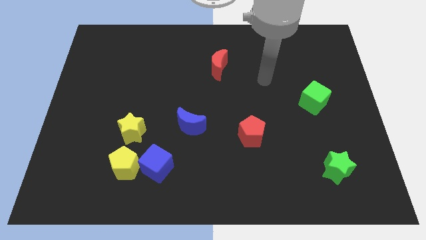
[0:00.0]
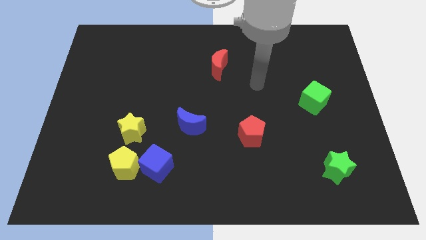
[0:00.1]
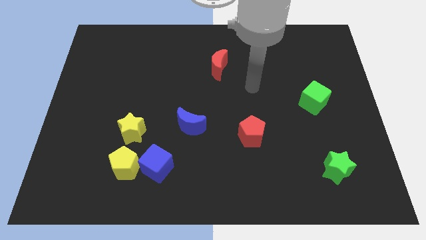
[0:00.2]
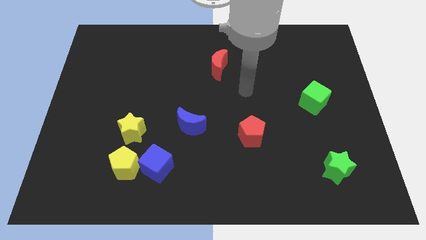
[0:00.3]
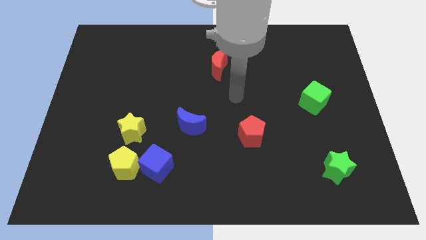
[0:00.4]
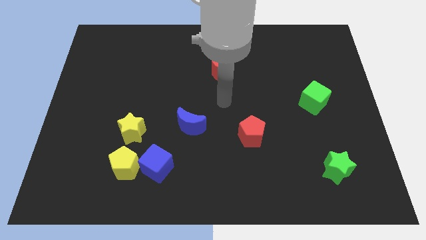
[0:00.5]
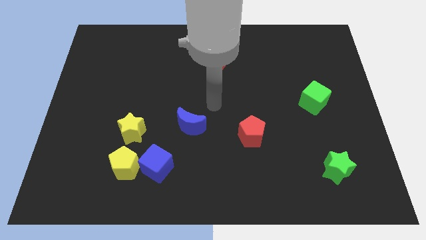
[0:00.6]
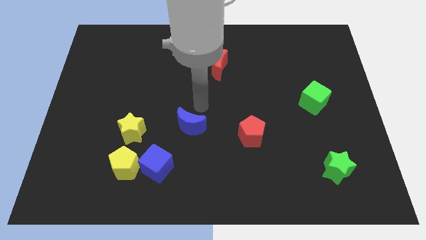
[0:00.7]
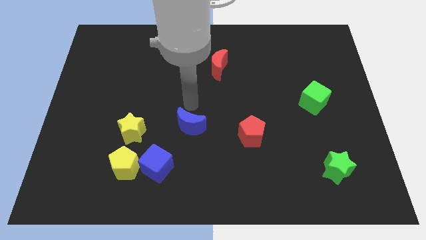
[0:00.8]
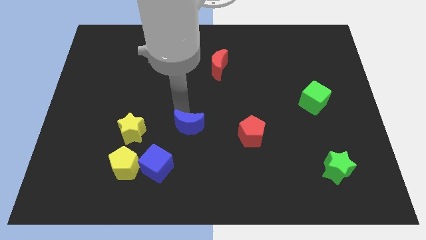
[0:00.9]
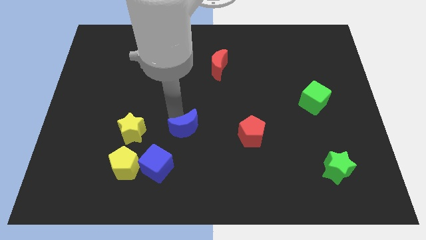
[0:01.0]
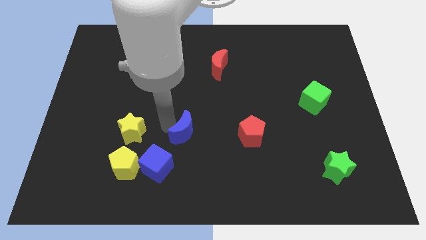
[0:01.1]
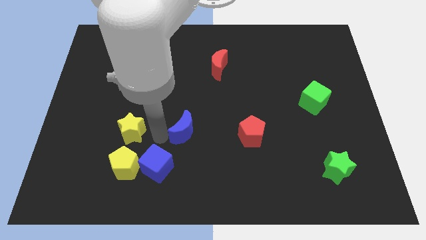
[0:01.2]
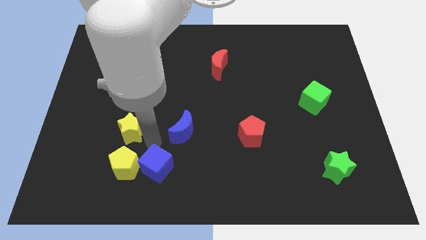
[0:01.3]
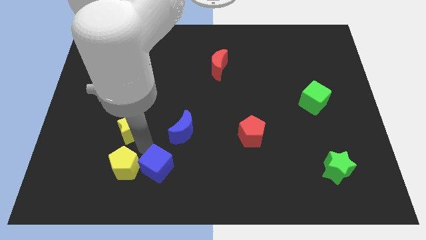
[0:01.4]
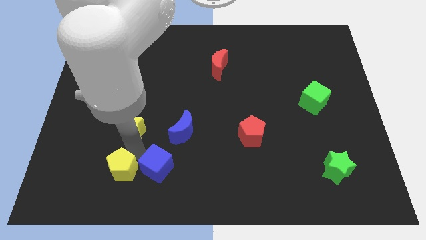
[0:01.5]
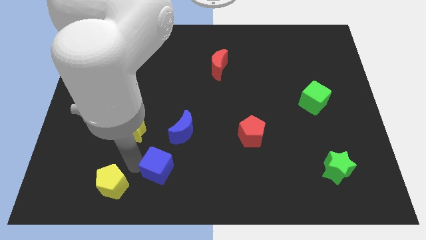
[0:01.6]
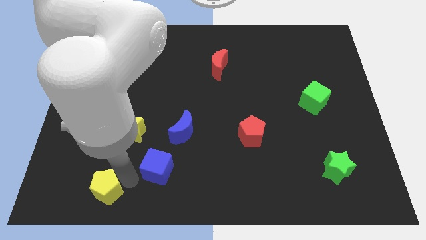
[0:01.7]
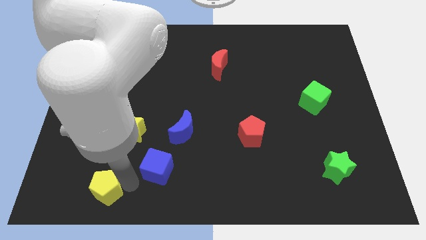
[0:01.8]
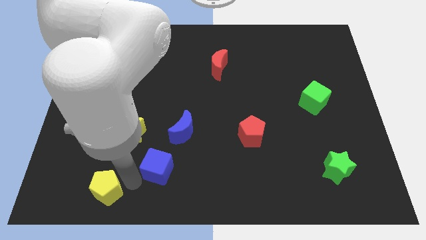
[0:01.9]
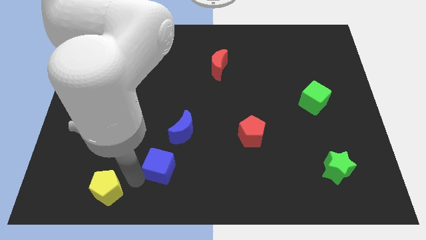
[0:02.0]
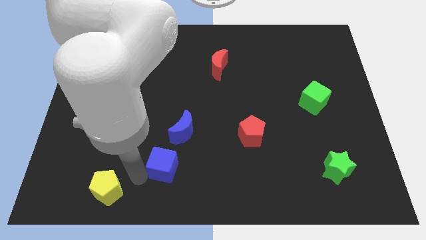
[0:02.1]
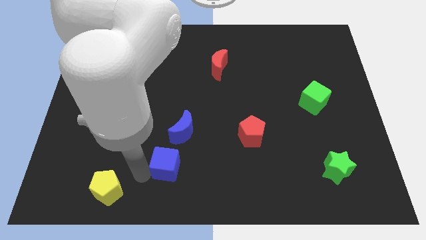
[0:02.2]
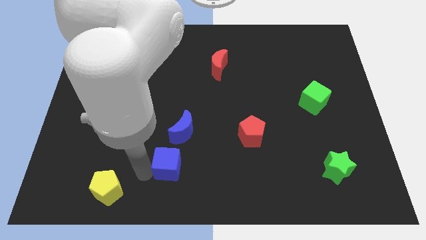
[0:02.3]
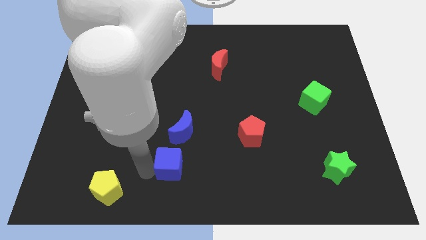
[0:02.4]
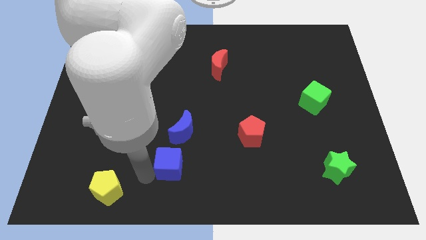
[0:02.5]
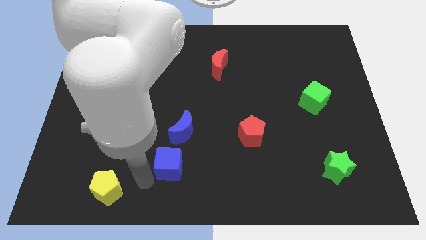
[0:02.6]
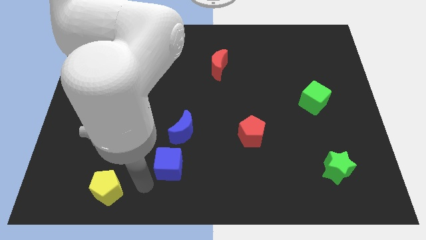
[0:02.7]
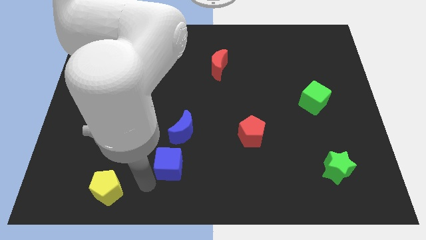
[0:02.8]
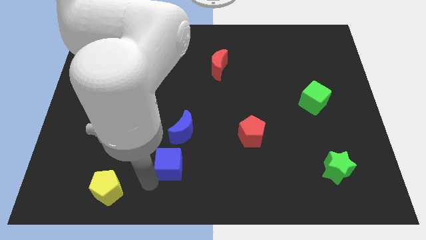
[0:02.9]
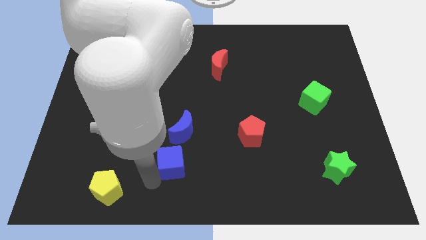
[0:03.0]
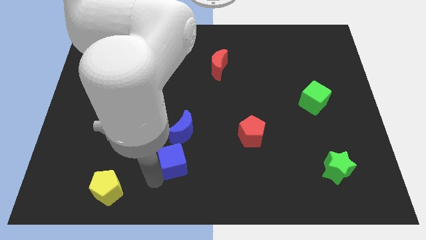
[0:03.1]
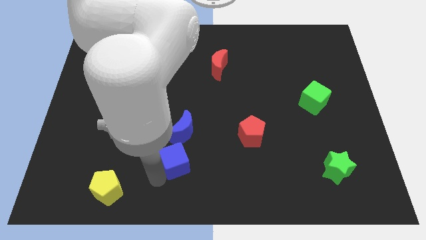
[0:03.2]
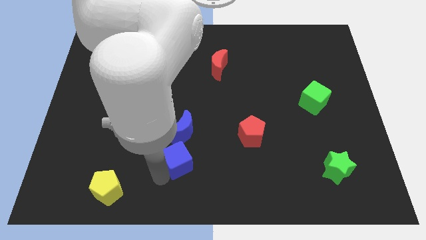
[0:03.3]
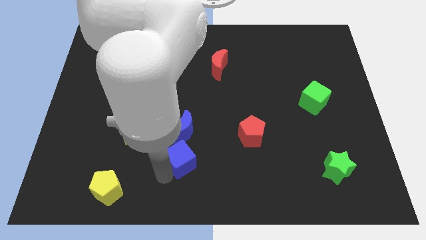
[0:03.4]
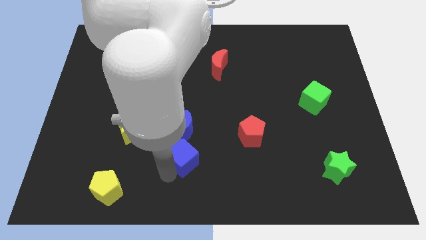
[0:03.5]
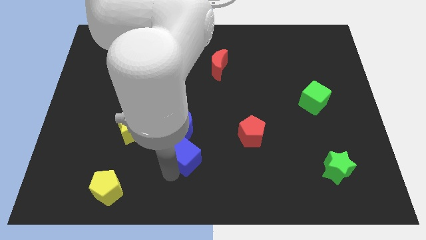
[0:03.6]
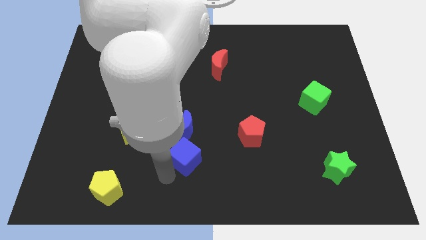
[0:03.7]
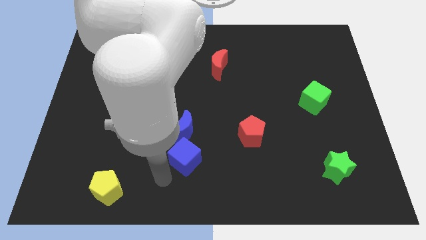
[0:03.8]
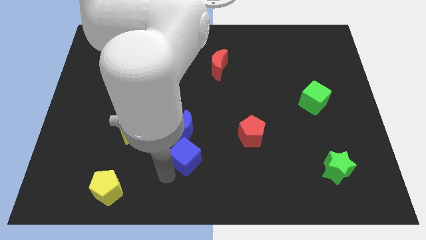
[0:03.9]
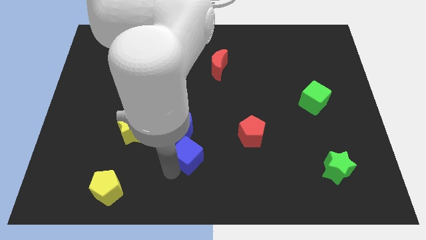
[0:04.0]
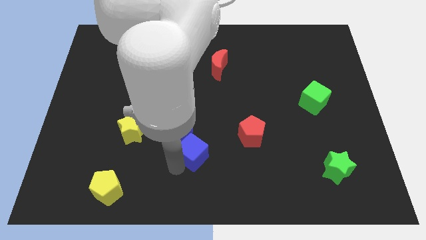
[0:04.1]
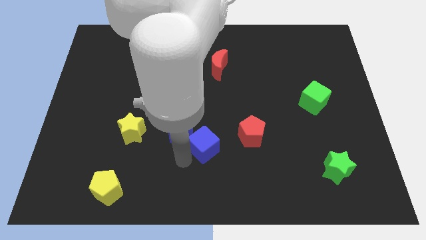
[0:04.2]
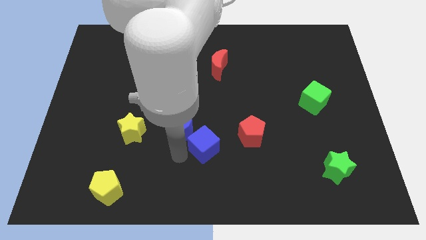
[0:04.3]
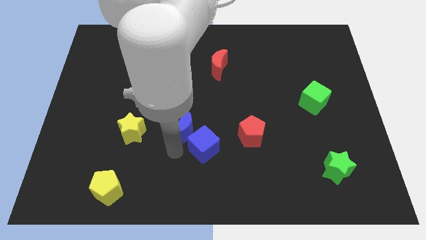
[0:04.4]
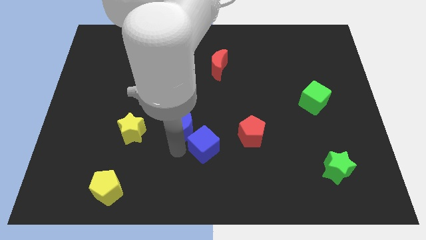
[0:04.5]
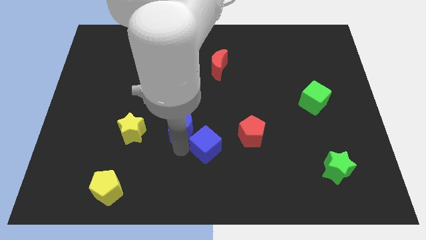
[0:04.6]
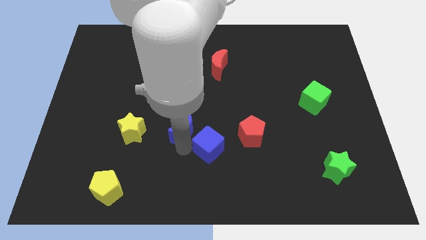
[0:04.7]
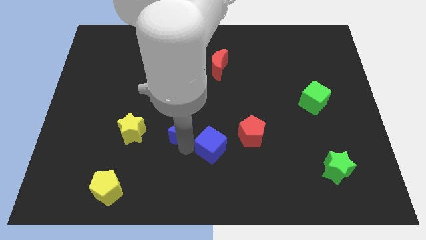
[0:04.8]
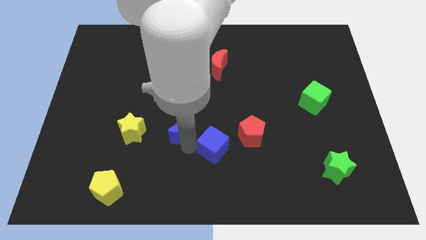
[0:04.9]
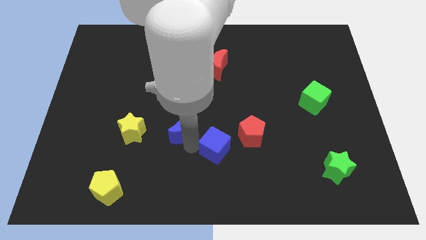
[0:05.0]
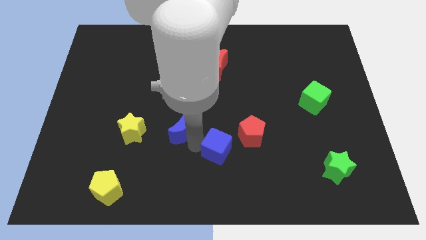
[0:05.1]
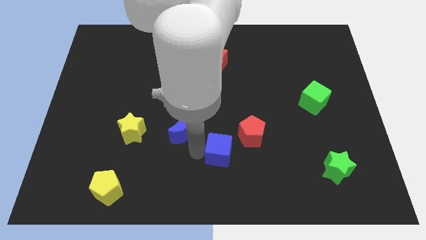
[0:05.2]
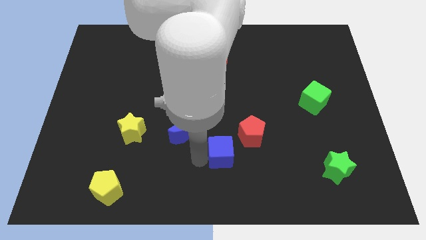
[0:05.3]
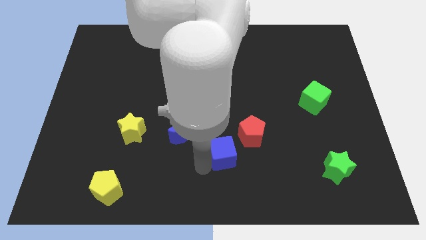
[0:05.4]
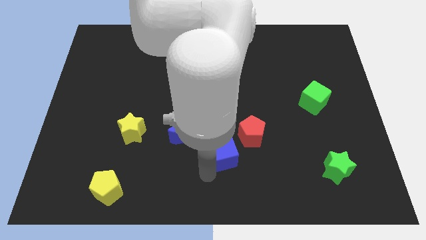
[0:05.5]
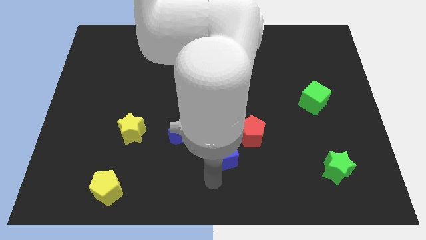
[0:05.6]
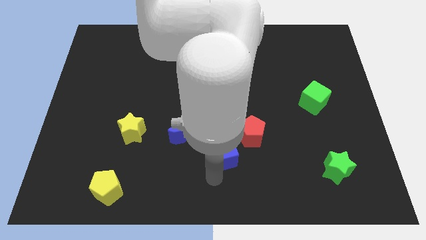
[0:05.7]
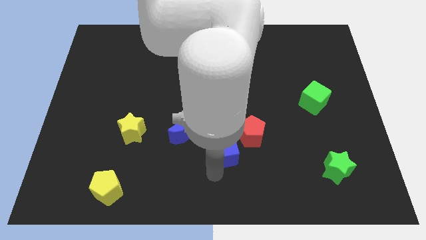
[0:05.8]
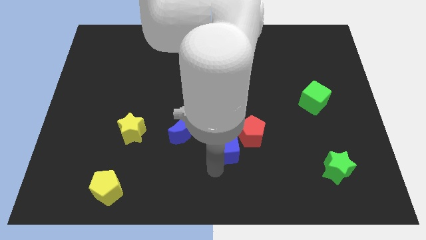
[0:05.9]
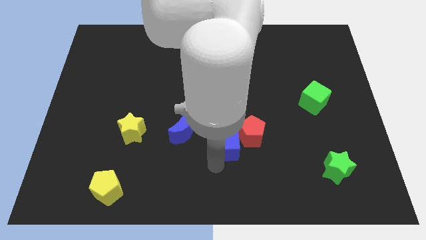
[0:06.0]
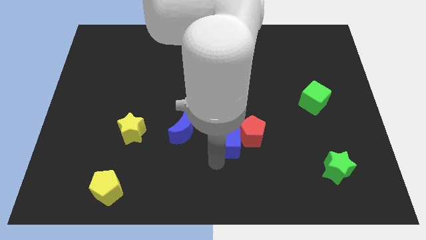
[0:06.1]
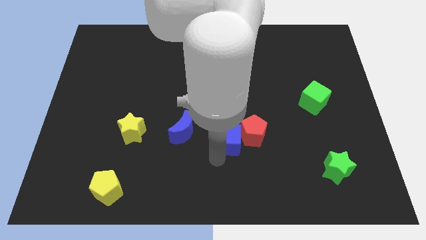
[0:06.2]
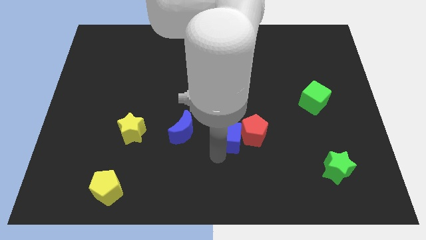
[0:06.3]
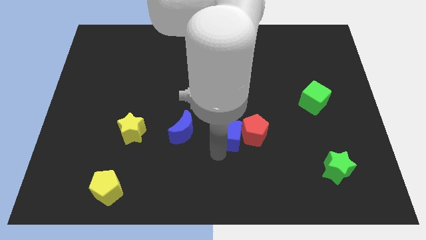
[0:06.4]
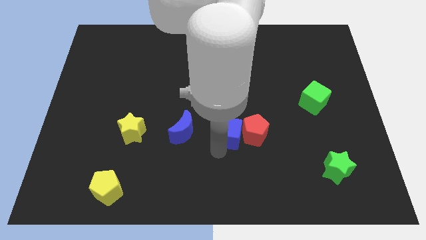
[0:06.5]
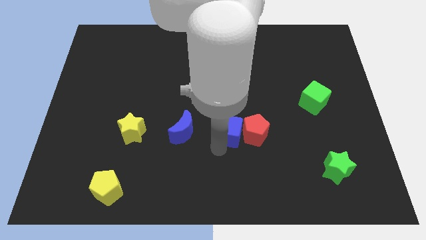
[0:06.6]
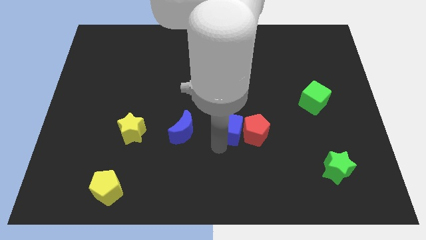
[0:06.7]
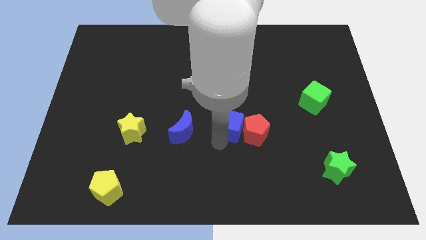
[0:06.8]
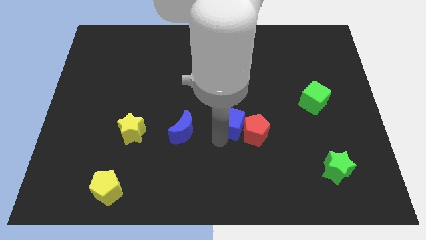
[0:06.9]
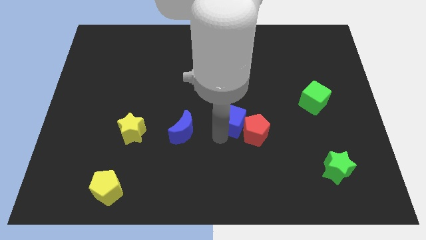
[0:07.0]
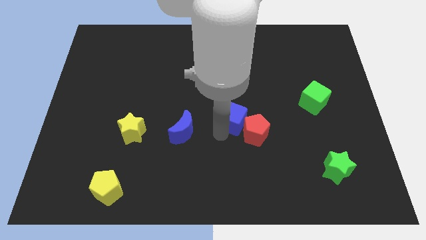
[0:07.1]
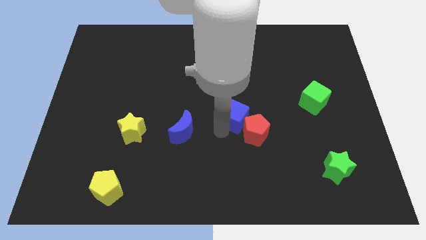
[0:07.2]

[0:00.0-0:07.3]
slide the blue cube diagonally up and right

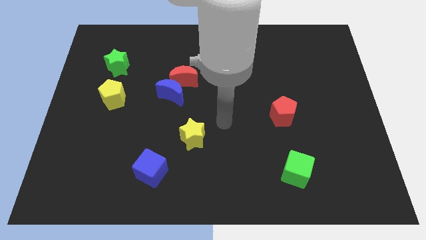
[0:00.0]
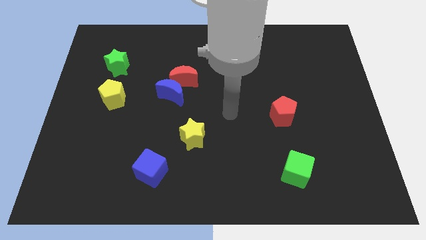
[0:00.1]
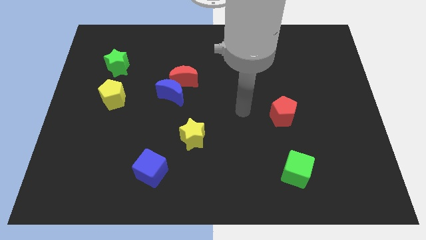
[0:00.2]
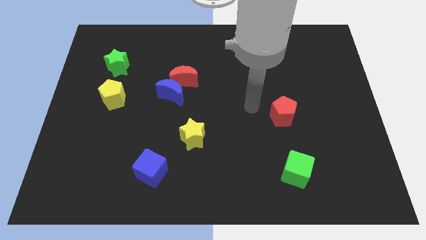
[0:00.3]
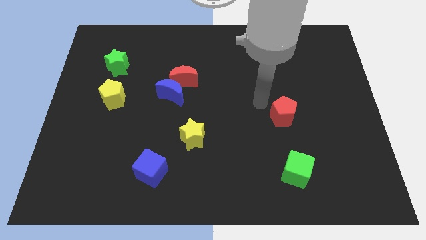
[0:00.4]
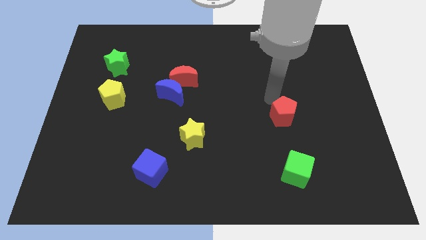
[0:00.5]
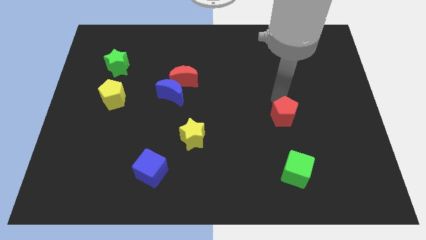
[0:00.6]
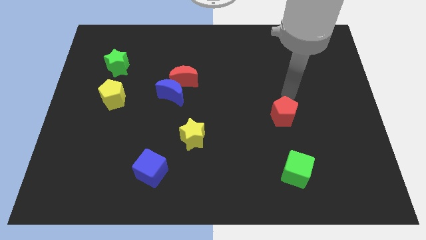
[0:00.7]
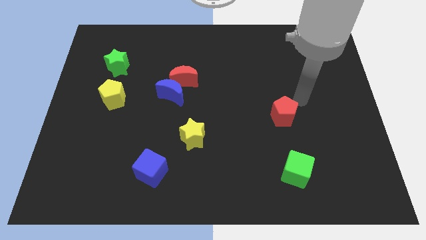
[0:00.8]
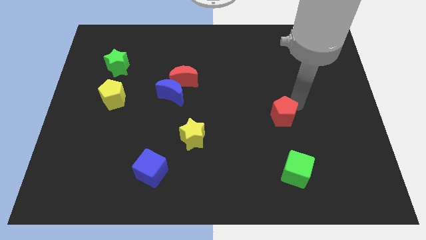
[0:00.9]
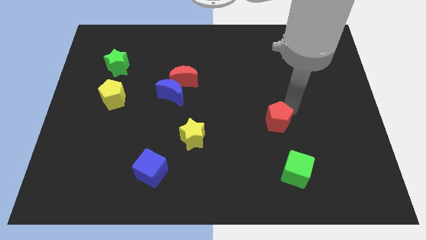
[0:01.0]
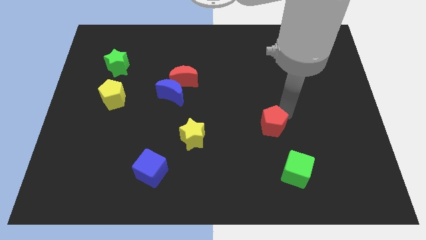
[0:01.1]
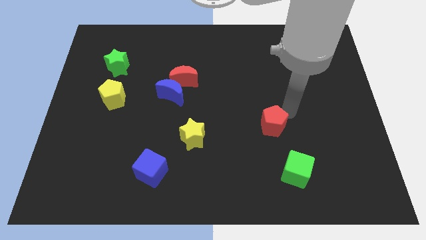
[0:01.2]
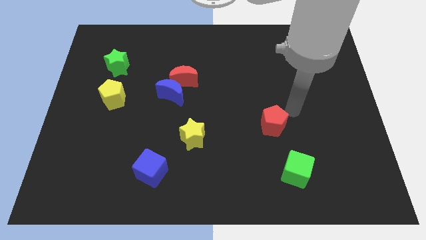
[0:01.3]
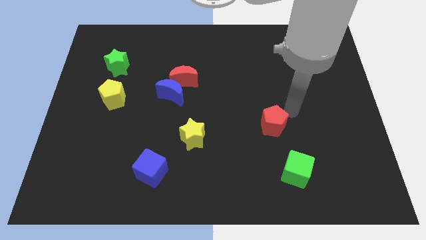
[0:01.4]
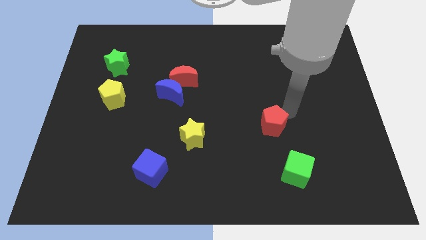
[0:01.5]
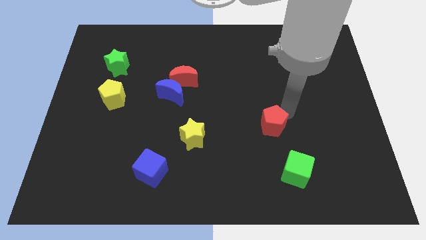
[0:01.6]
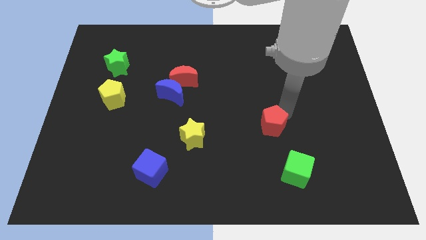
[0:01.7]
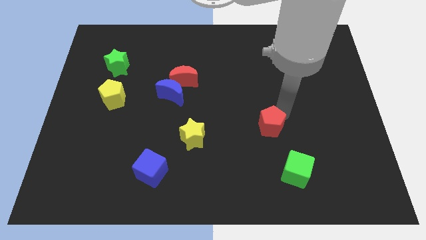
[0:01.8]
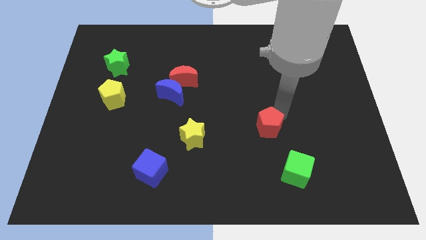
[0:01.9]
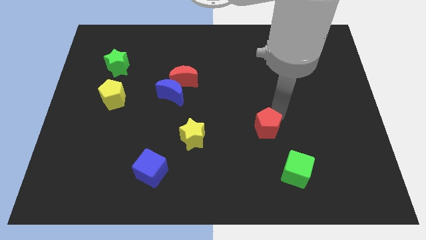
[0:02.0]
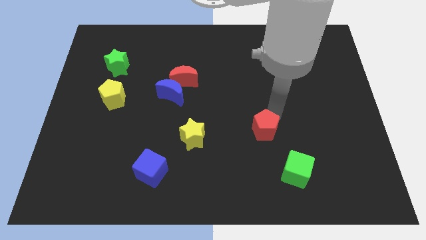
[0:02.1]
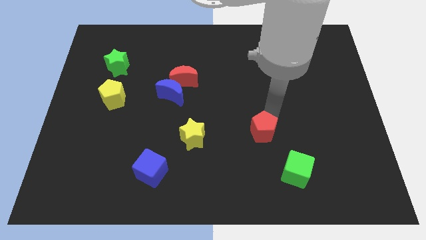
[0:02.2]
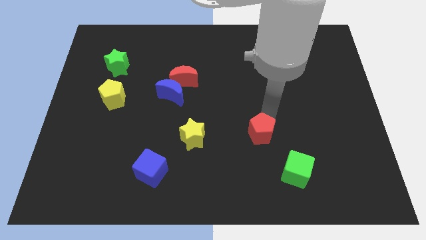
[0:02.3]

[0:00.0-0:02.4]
slide the red pentagon down and to the left diagonally a little
